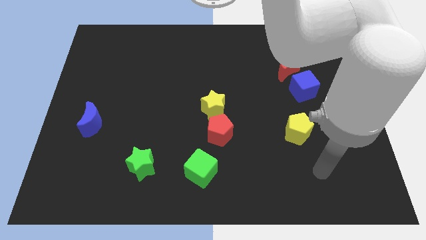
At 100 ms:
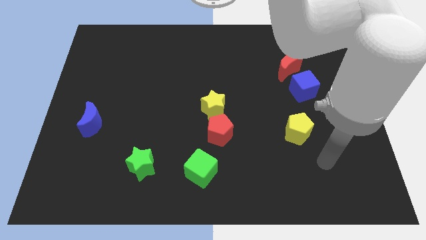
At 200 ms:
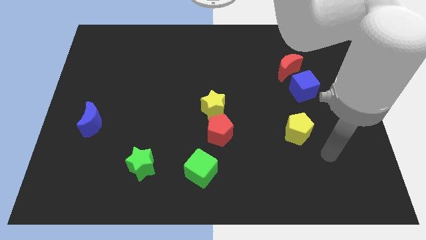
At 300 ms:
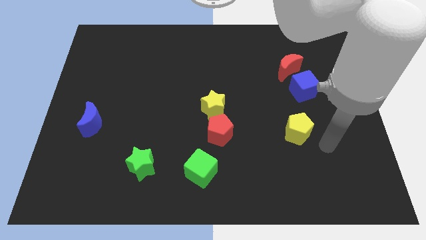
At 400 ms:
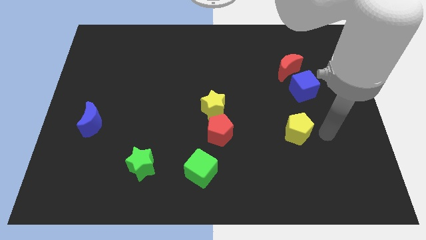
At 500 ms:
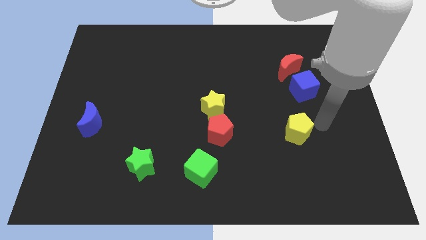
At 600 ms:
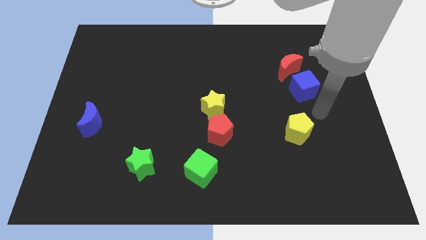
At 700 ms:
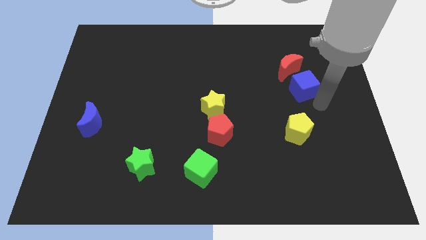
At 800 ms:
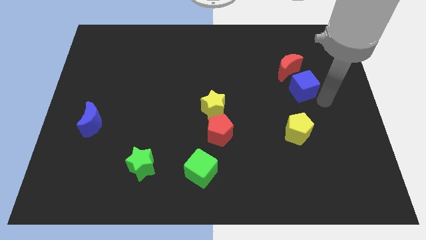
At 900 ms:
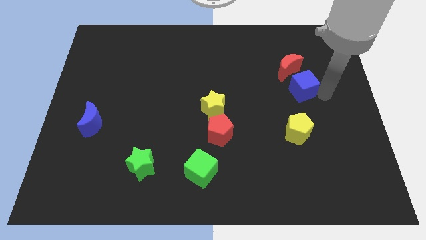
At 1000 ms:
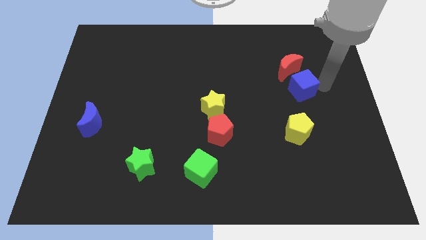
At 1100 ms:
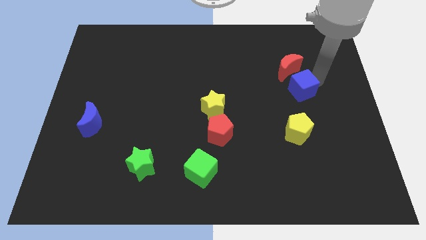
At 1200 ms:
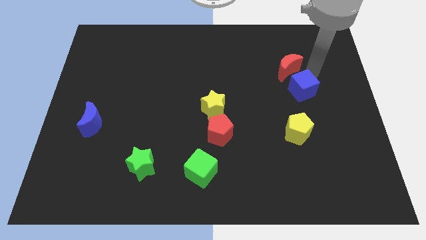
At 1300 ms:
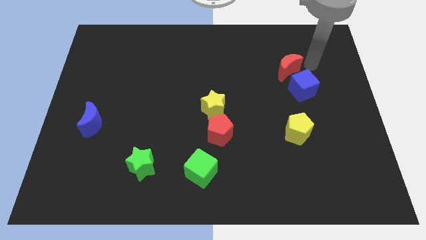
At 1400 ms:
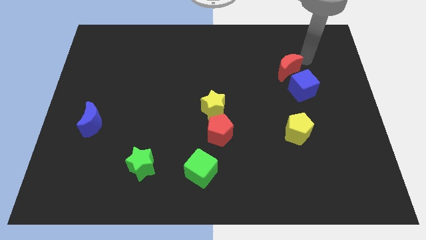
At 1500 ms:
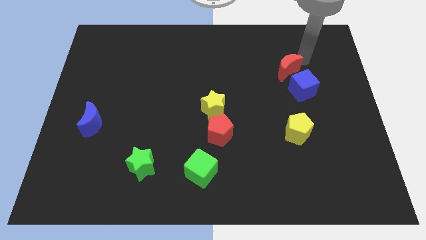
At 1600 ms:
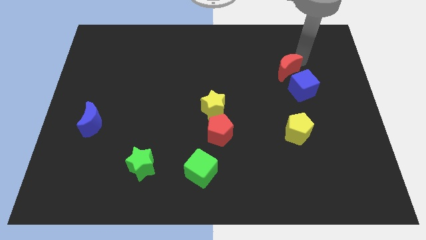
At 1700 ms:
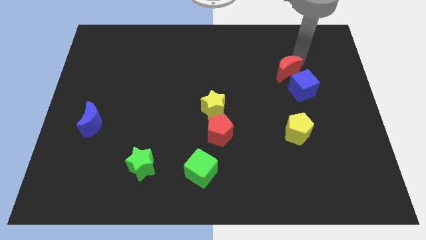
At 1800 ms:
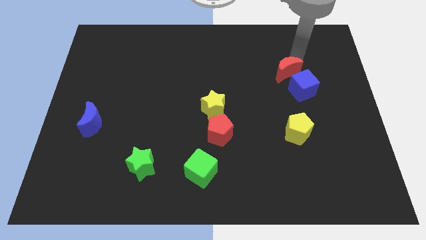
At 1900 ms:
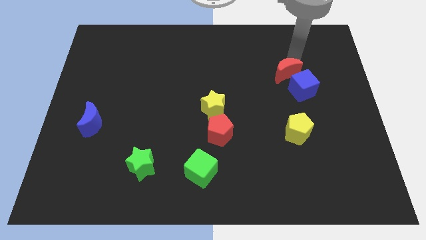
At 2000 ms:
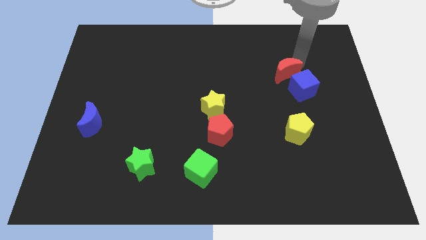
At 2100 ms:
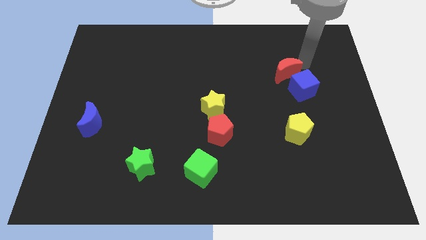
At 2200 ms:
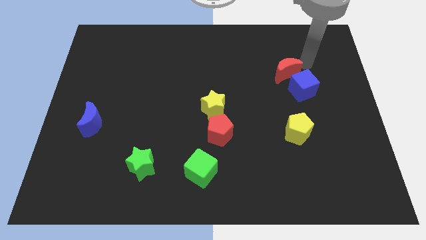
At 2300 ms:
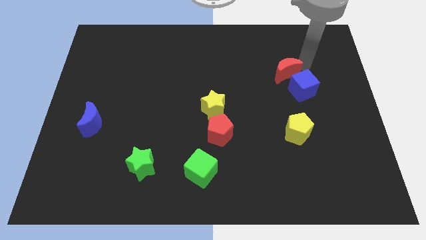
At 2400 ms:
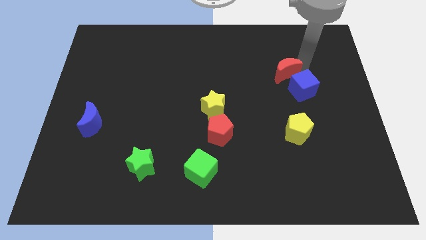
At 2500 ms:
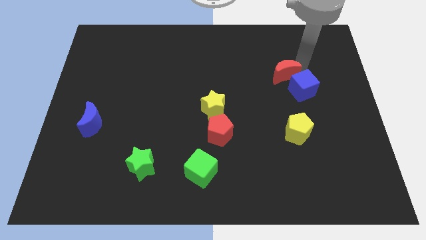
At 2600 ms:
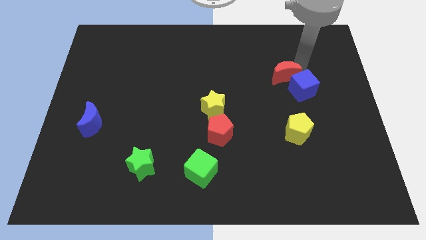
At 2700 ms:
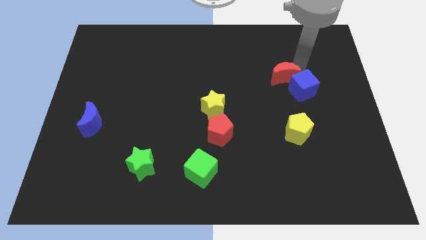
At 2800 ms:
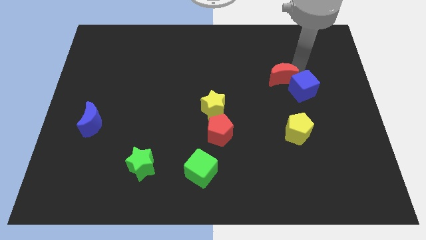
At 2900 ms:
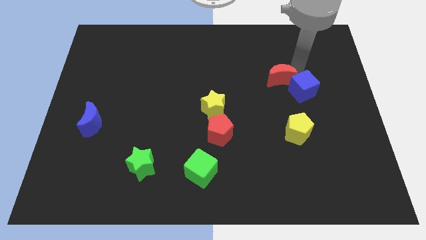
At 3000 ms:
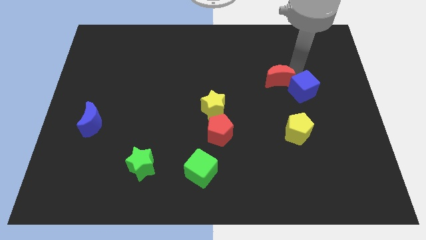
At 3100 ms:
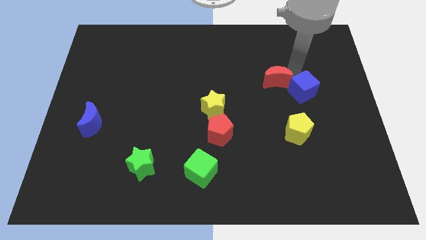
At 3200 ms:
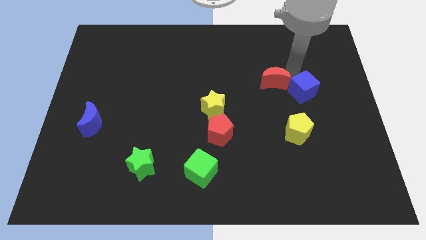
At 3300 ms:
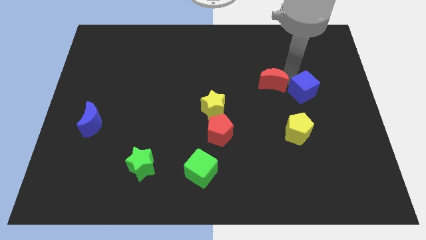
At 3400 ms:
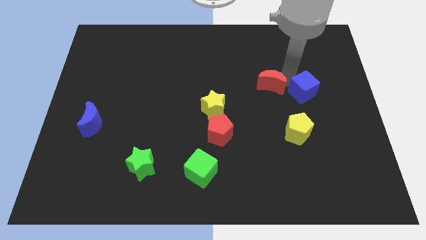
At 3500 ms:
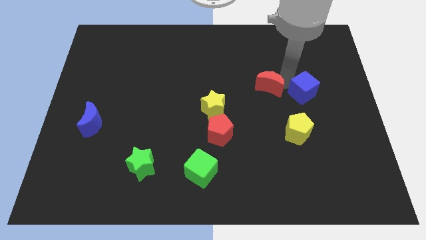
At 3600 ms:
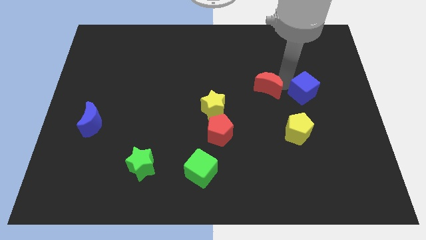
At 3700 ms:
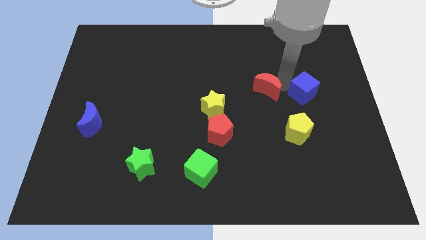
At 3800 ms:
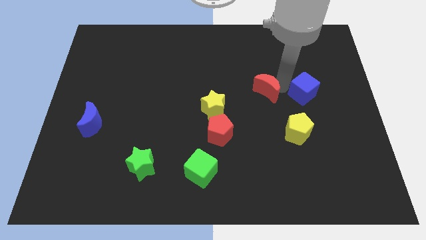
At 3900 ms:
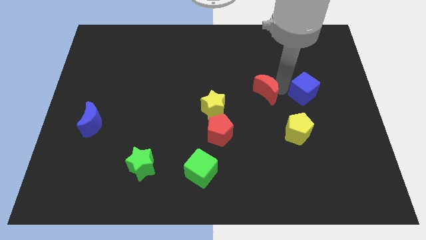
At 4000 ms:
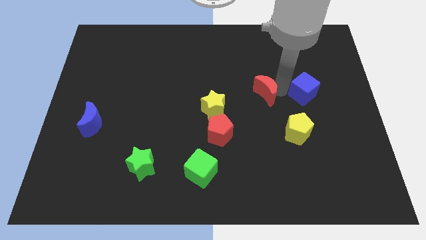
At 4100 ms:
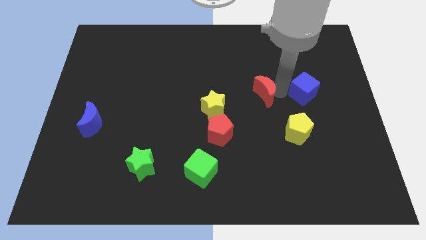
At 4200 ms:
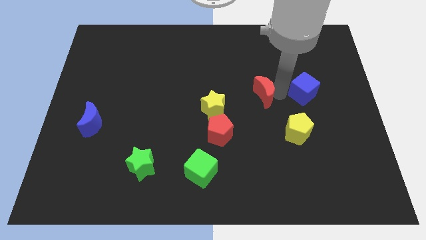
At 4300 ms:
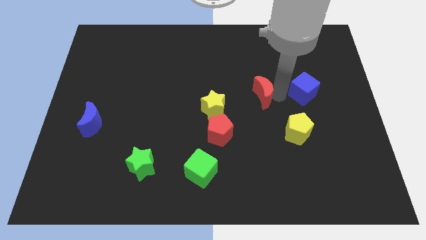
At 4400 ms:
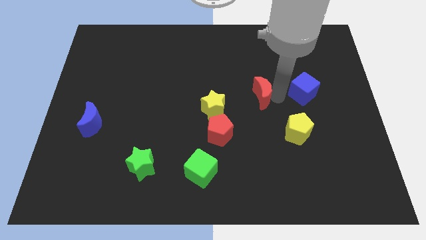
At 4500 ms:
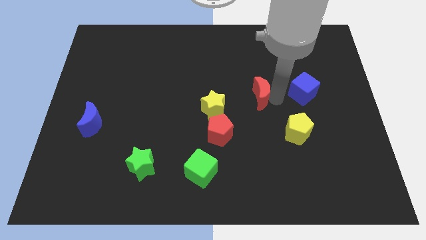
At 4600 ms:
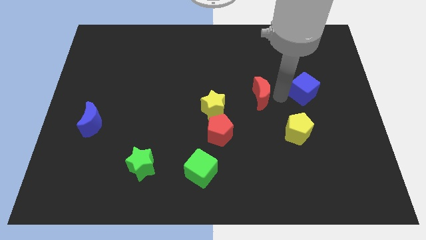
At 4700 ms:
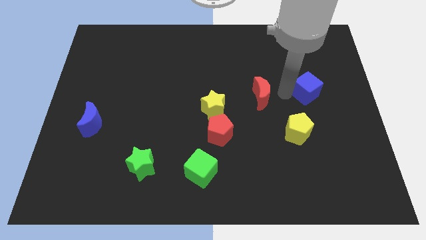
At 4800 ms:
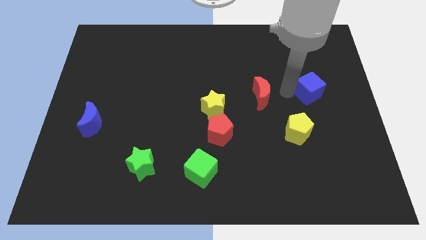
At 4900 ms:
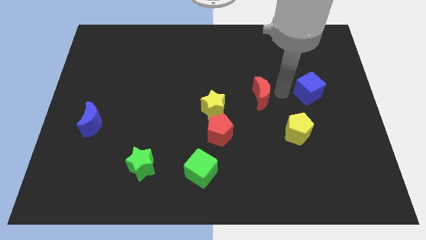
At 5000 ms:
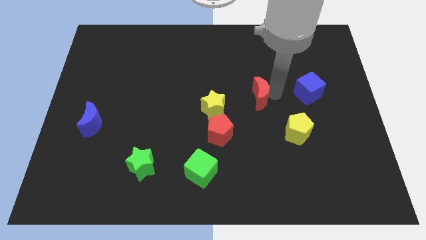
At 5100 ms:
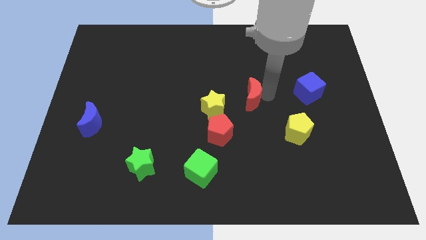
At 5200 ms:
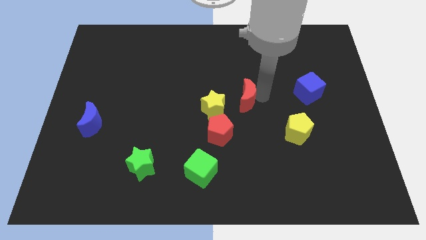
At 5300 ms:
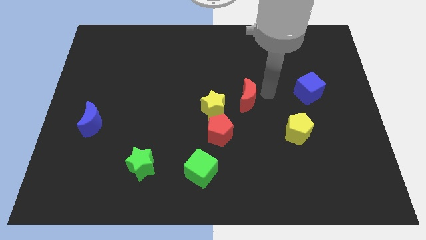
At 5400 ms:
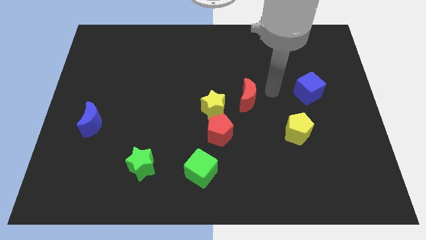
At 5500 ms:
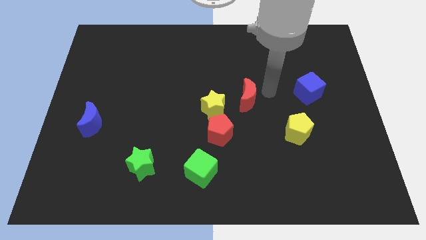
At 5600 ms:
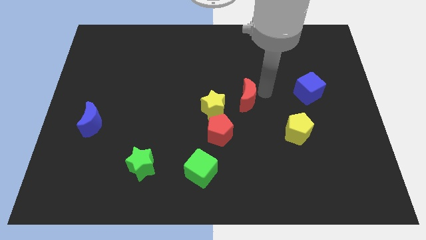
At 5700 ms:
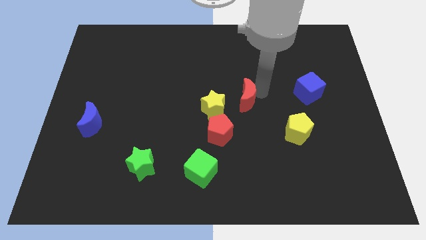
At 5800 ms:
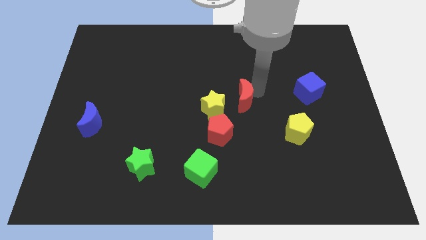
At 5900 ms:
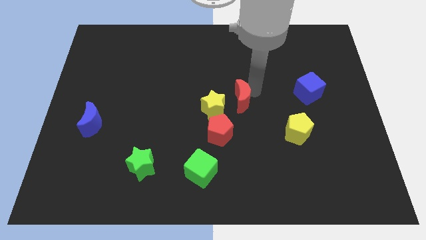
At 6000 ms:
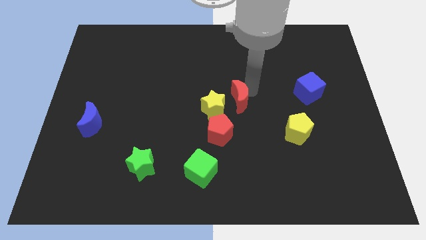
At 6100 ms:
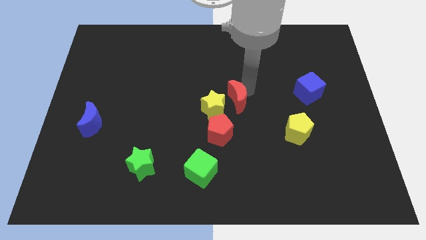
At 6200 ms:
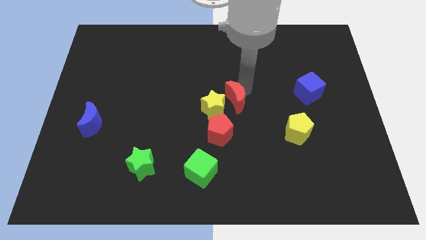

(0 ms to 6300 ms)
move the red moon close to the yellow star

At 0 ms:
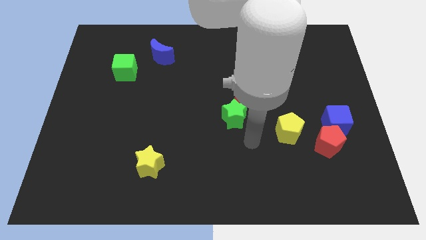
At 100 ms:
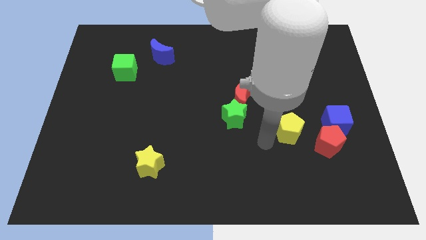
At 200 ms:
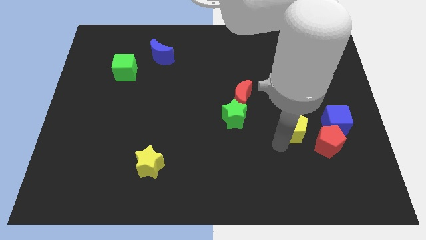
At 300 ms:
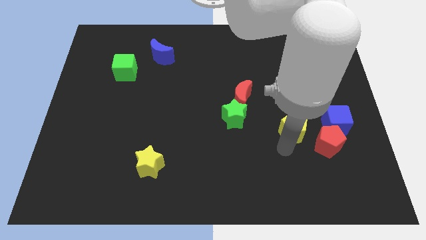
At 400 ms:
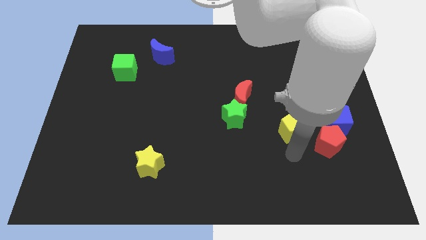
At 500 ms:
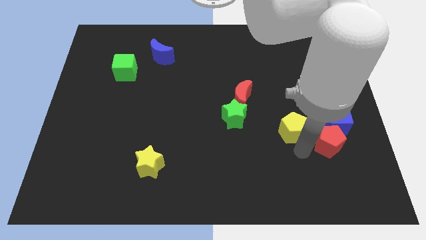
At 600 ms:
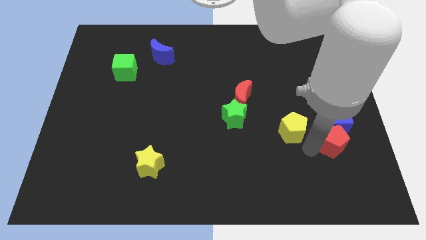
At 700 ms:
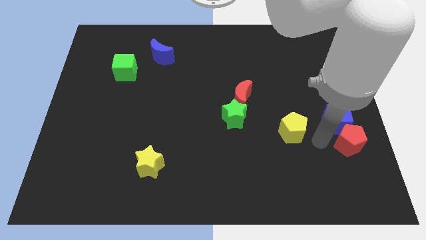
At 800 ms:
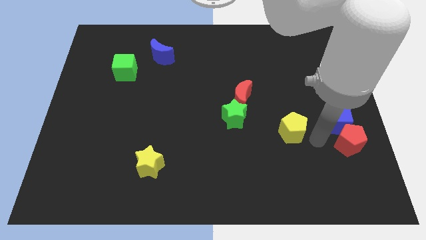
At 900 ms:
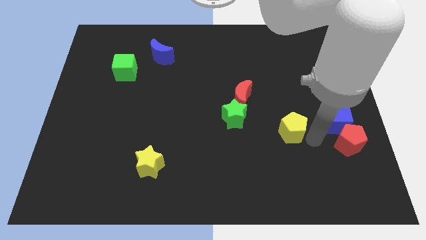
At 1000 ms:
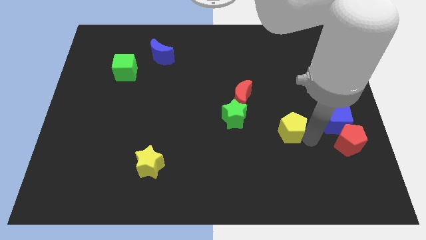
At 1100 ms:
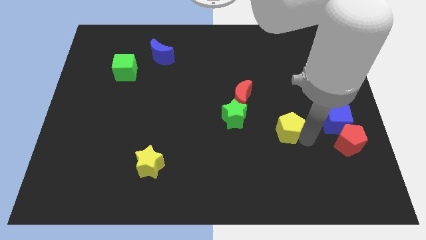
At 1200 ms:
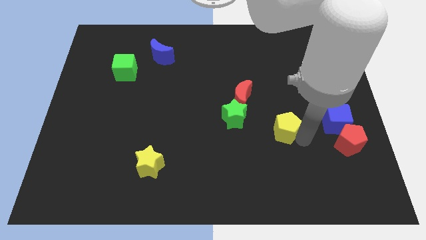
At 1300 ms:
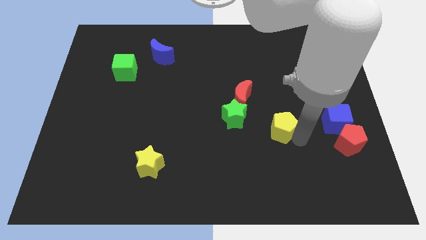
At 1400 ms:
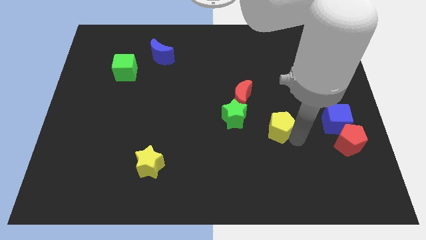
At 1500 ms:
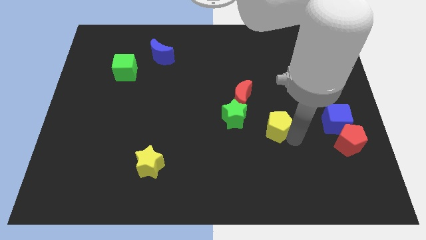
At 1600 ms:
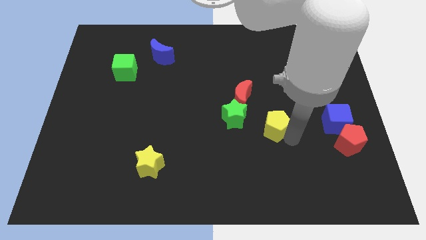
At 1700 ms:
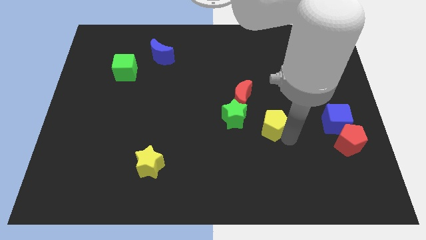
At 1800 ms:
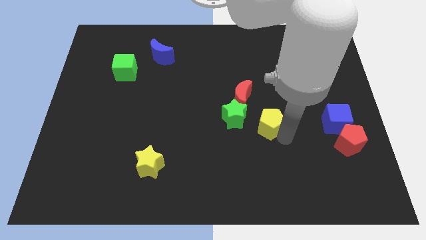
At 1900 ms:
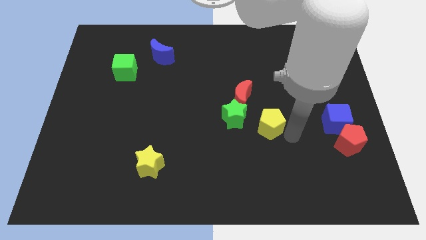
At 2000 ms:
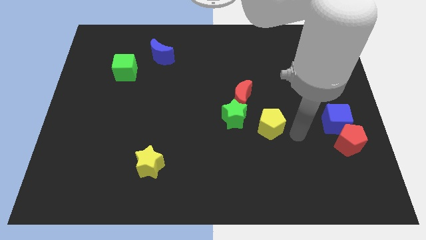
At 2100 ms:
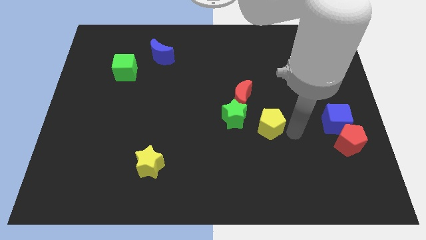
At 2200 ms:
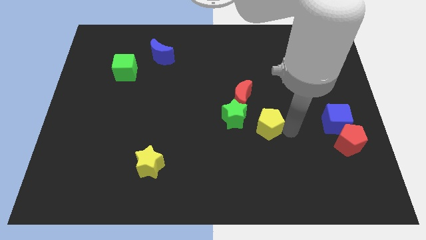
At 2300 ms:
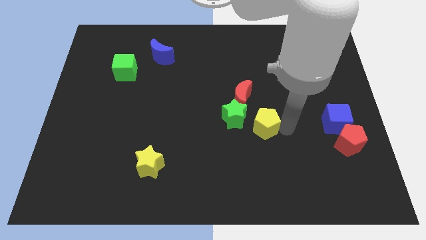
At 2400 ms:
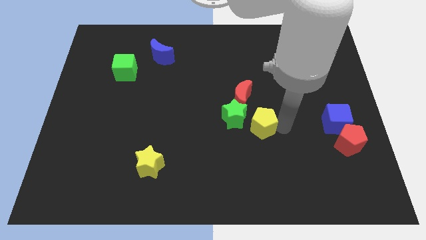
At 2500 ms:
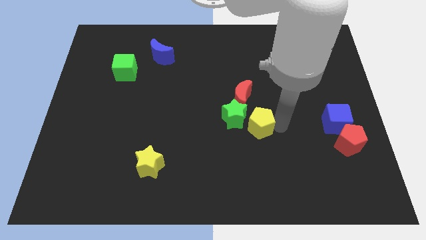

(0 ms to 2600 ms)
push the yellow pentagon close to the green star
